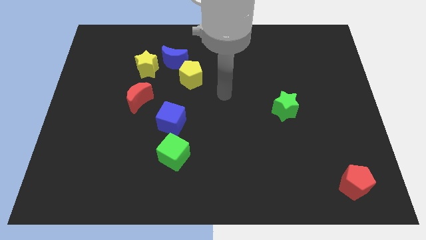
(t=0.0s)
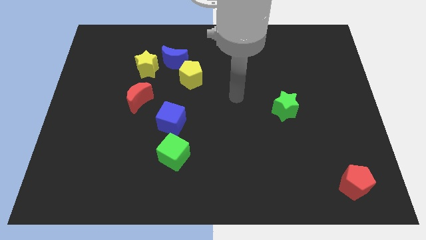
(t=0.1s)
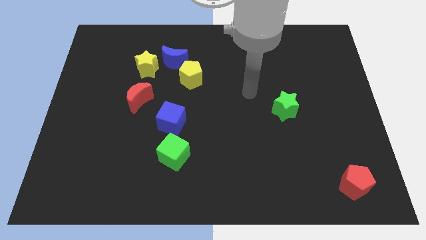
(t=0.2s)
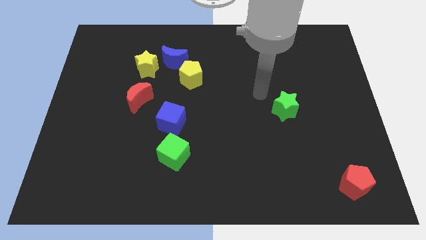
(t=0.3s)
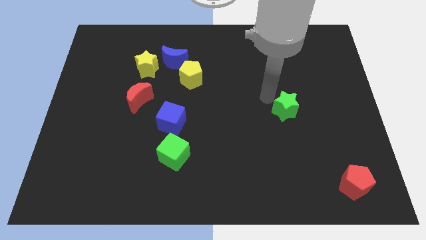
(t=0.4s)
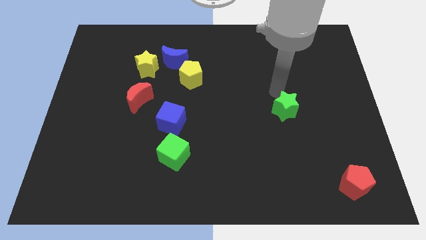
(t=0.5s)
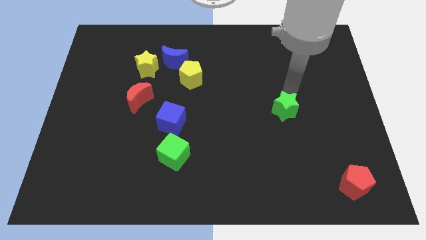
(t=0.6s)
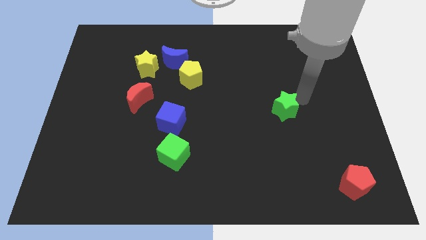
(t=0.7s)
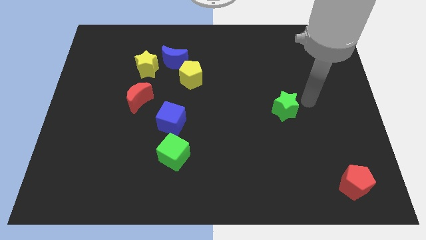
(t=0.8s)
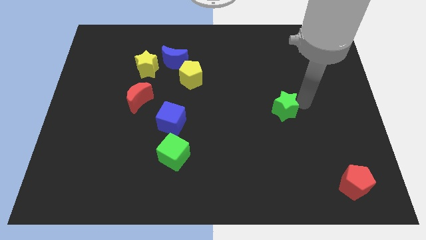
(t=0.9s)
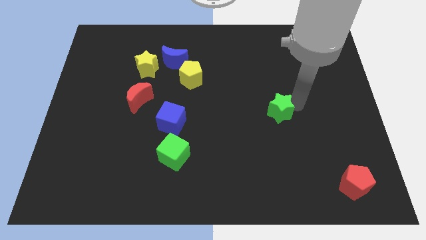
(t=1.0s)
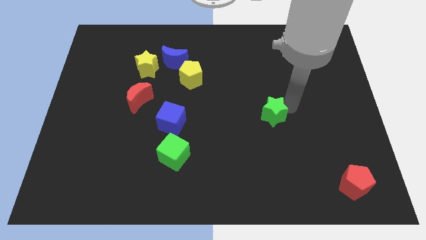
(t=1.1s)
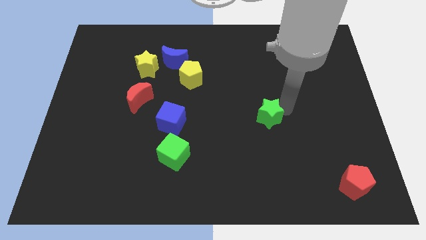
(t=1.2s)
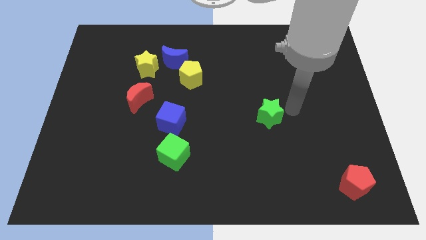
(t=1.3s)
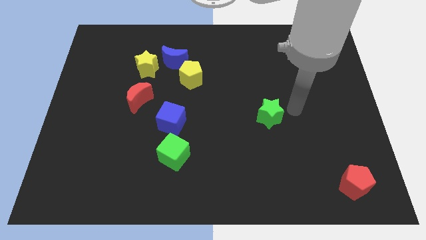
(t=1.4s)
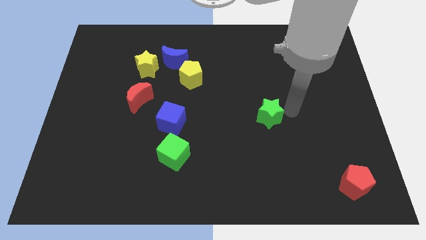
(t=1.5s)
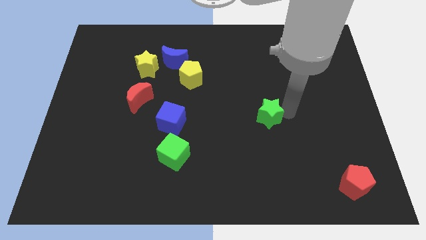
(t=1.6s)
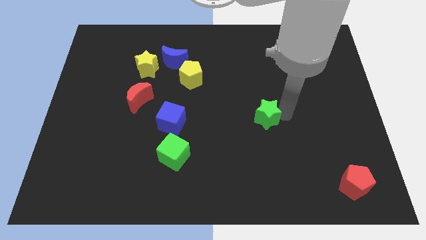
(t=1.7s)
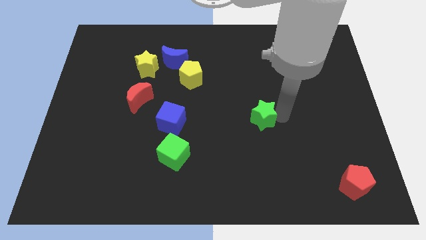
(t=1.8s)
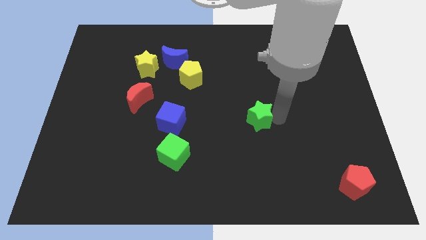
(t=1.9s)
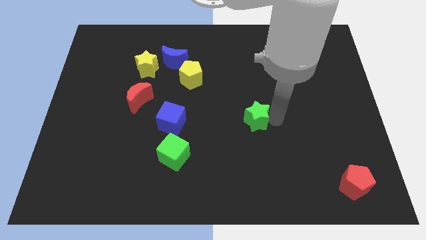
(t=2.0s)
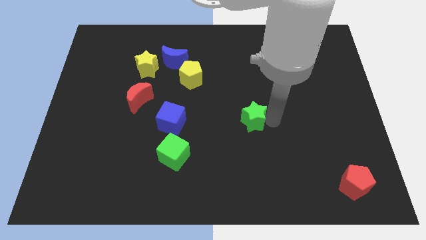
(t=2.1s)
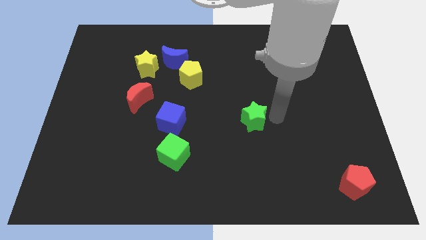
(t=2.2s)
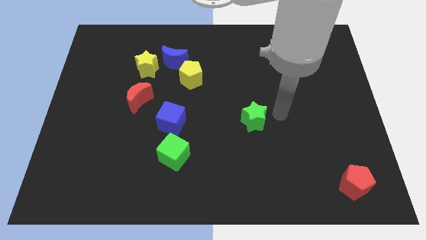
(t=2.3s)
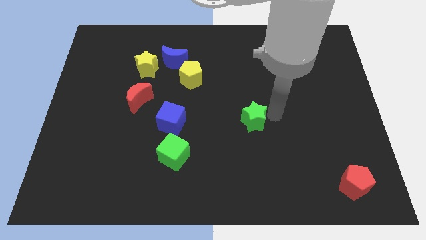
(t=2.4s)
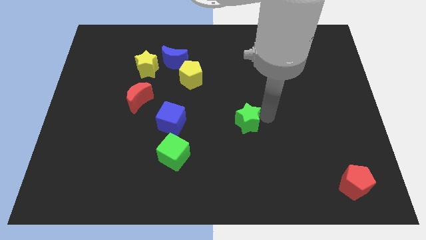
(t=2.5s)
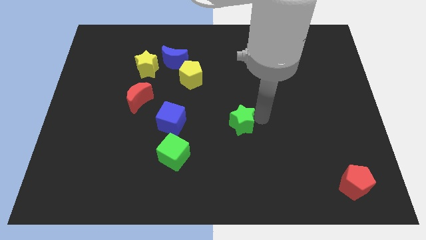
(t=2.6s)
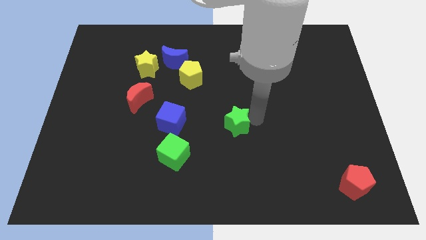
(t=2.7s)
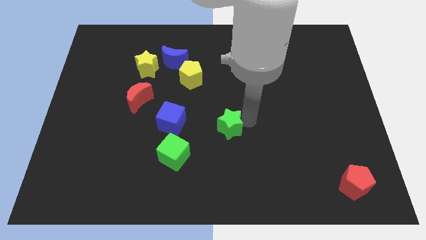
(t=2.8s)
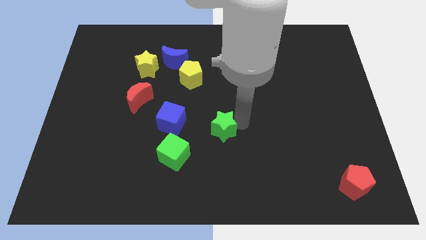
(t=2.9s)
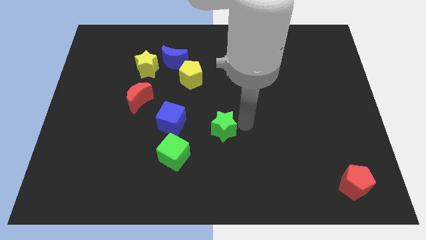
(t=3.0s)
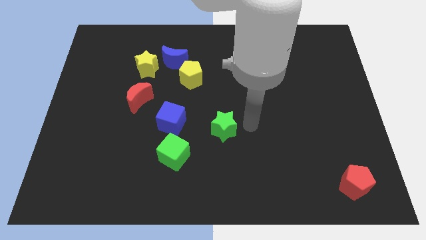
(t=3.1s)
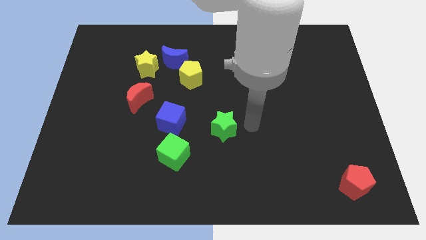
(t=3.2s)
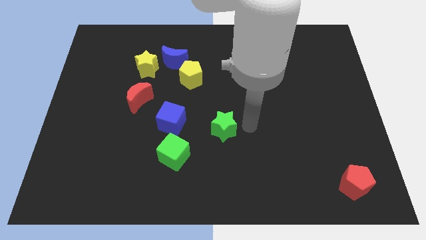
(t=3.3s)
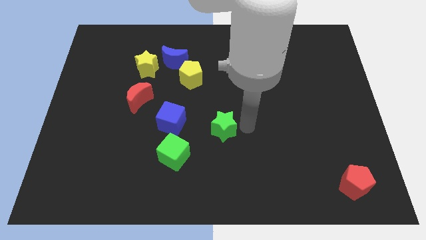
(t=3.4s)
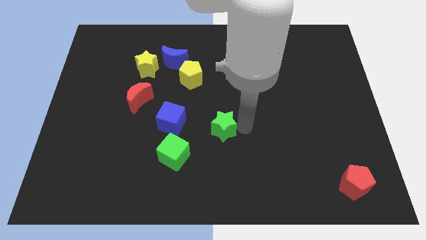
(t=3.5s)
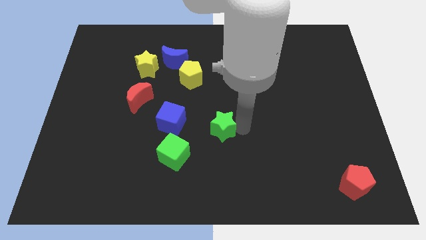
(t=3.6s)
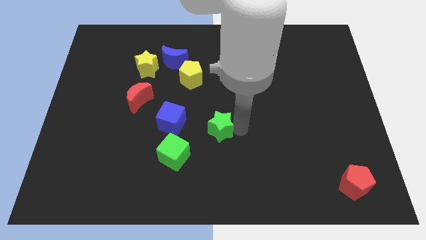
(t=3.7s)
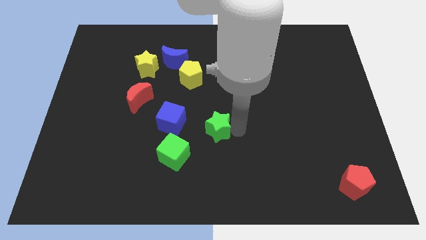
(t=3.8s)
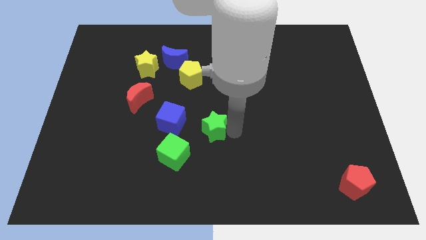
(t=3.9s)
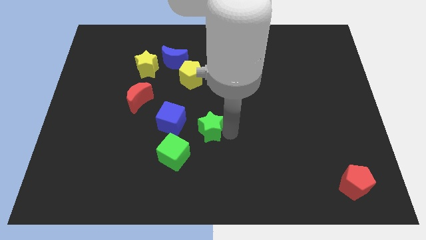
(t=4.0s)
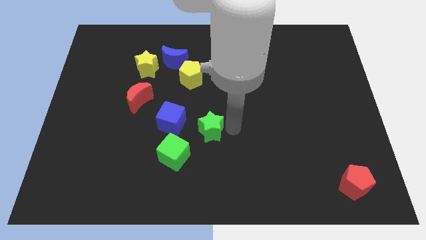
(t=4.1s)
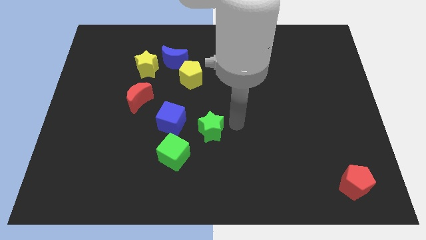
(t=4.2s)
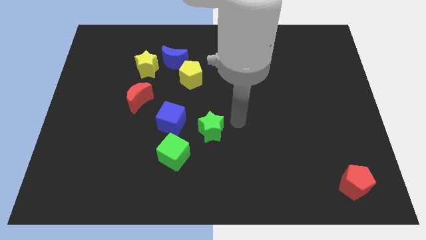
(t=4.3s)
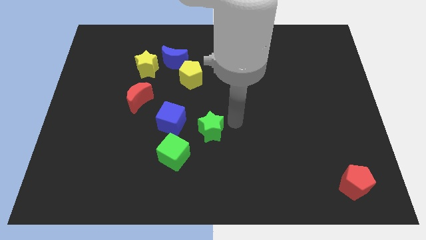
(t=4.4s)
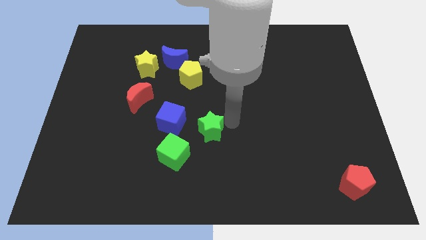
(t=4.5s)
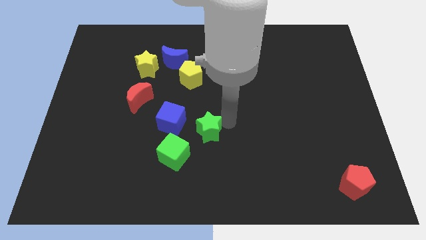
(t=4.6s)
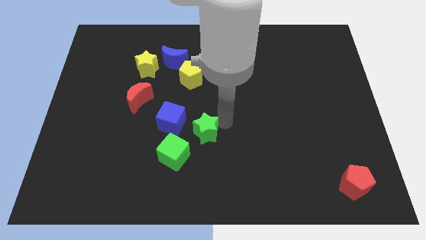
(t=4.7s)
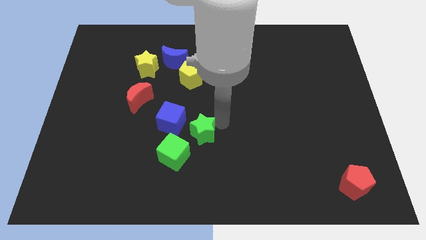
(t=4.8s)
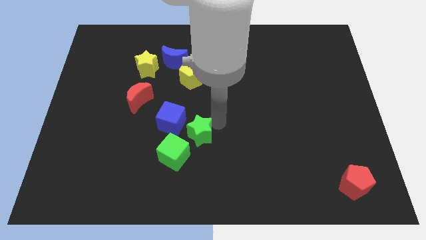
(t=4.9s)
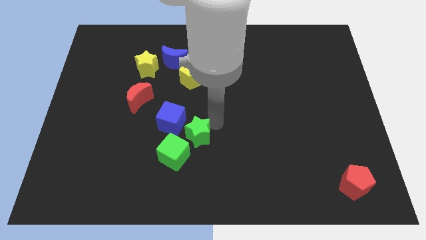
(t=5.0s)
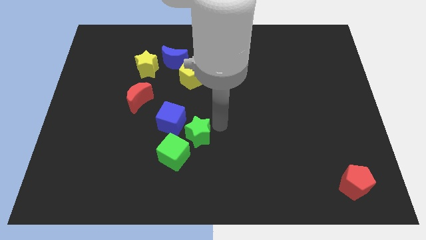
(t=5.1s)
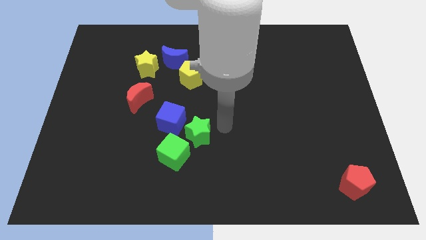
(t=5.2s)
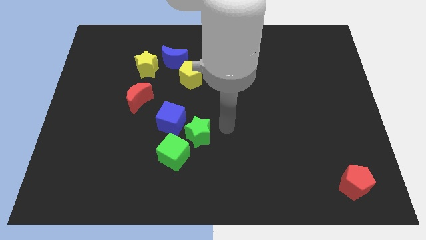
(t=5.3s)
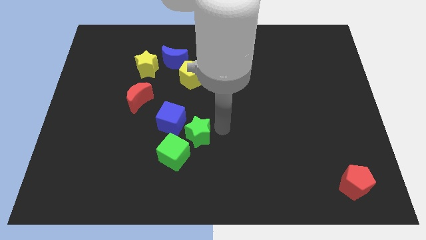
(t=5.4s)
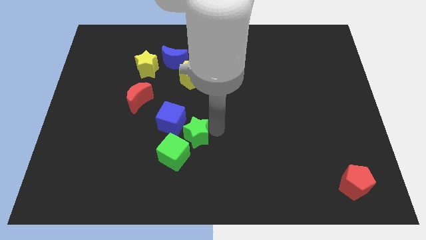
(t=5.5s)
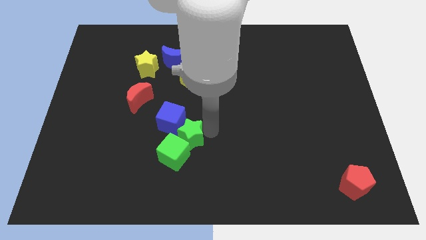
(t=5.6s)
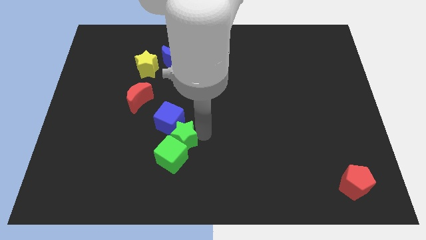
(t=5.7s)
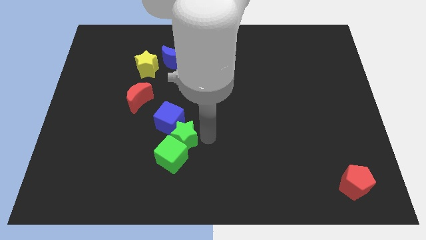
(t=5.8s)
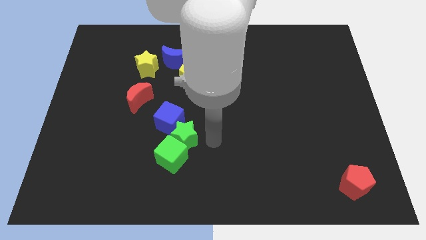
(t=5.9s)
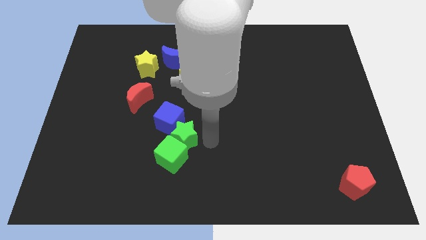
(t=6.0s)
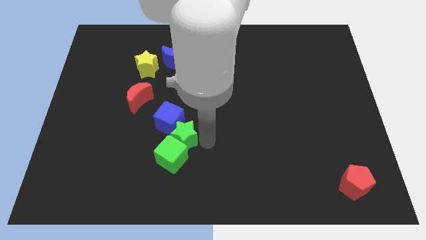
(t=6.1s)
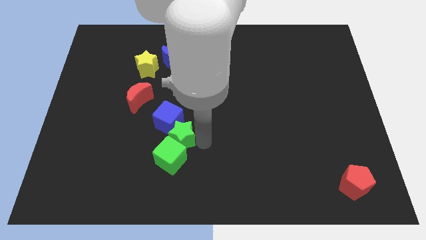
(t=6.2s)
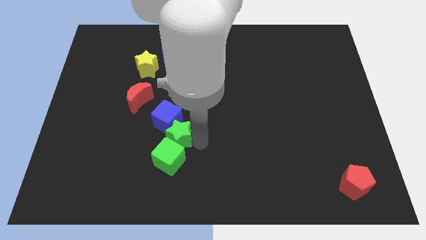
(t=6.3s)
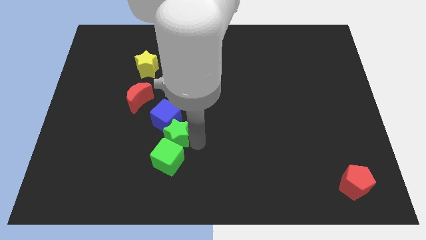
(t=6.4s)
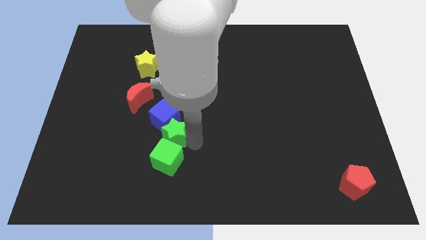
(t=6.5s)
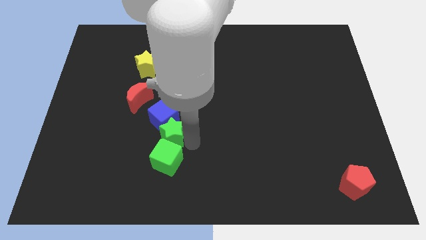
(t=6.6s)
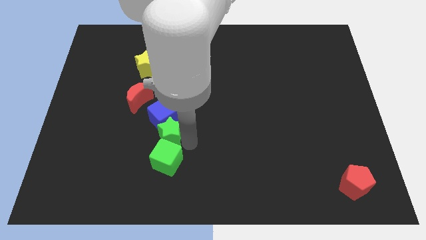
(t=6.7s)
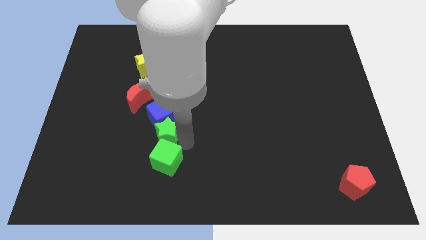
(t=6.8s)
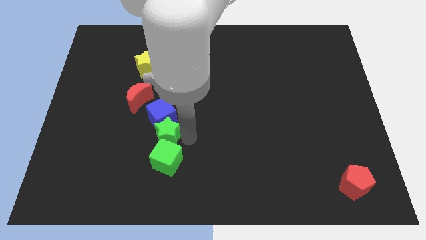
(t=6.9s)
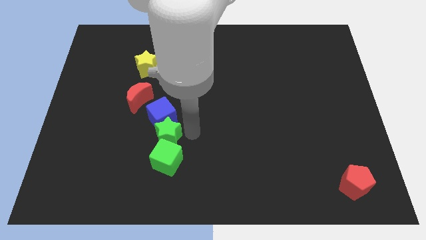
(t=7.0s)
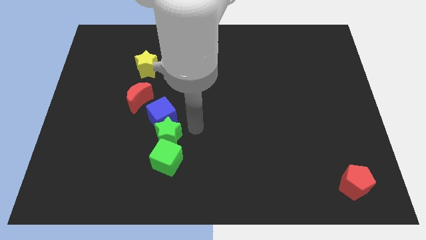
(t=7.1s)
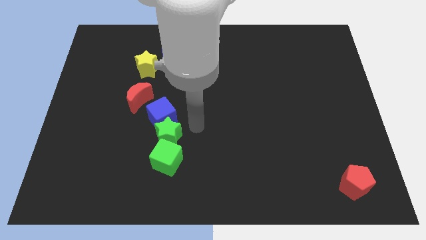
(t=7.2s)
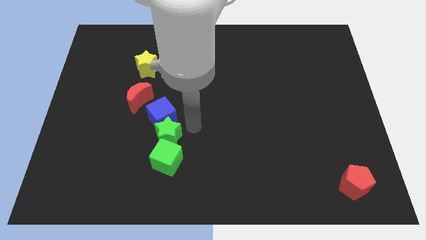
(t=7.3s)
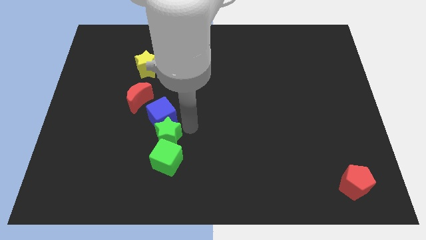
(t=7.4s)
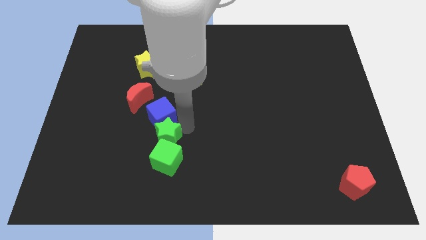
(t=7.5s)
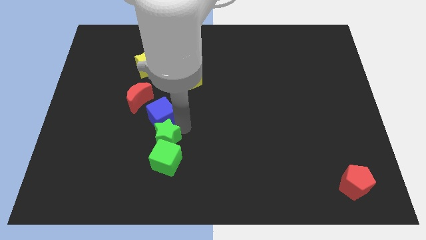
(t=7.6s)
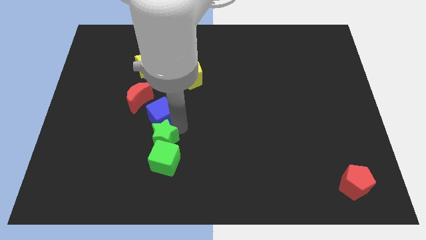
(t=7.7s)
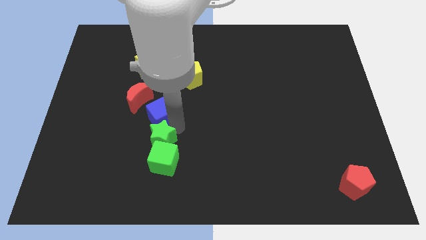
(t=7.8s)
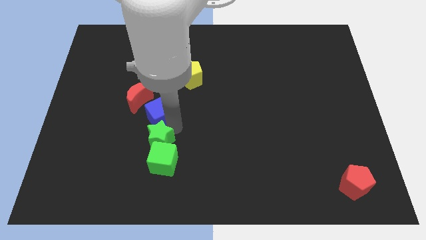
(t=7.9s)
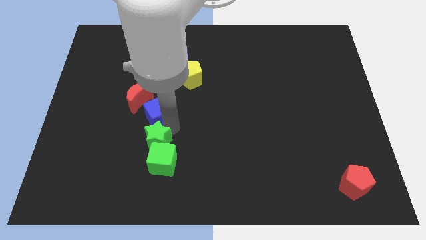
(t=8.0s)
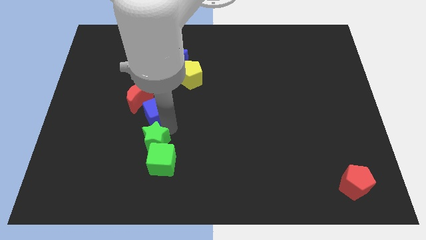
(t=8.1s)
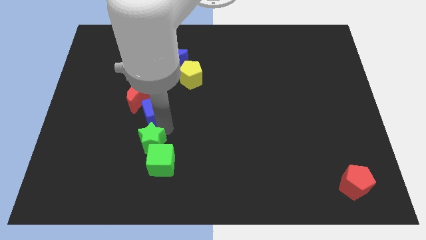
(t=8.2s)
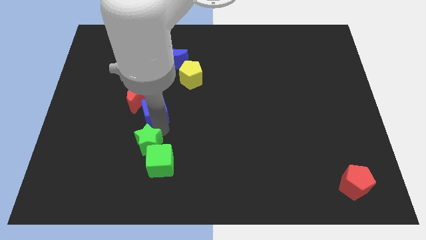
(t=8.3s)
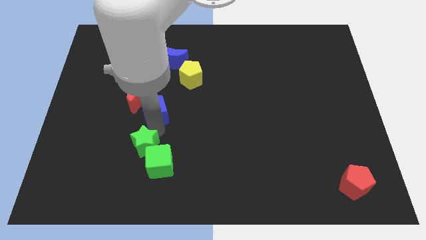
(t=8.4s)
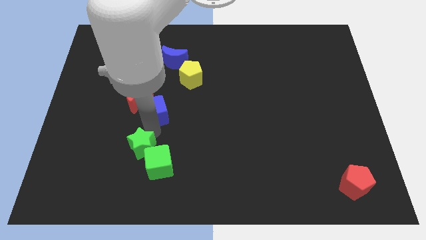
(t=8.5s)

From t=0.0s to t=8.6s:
slide the green star just left of the green cube
